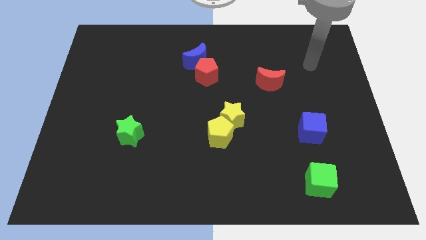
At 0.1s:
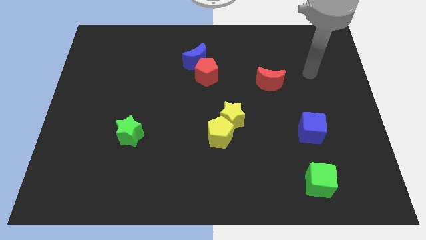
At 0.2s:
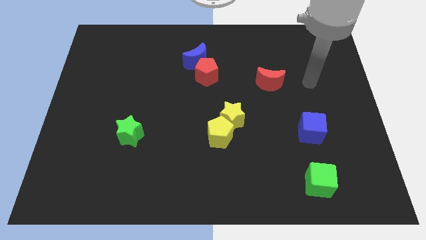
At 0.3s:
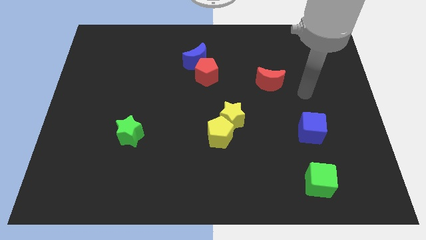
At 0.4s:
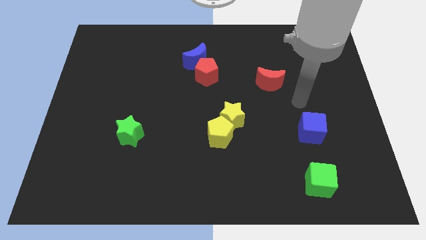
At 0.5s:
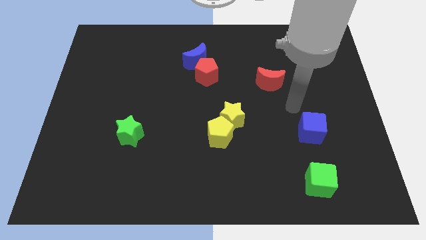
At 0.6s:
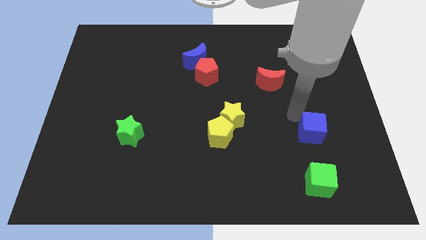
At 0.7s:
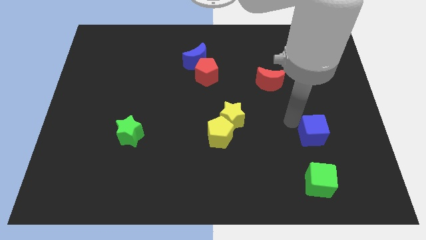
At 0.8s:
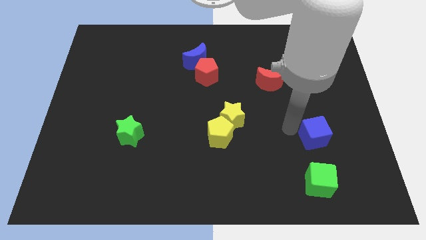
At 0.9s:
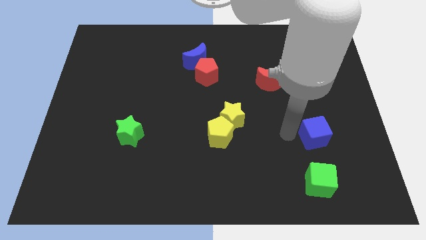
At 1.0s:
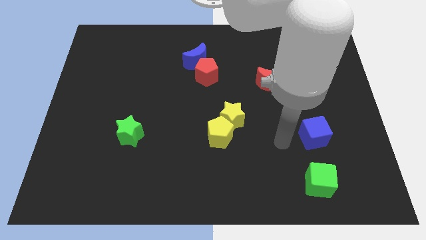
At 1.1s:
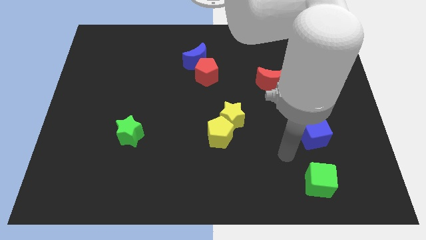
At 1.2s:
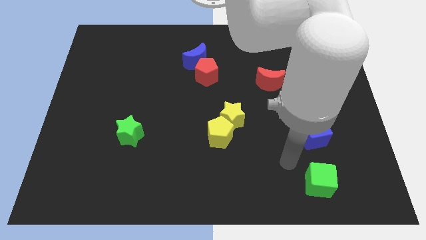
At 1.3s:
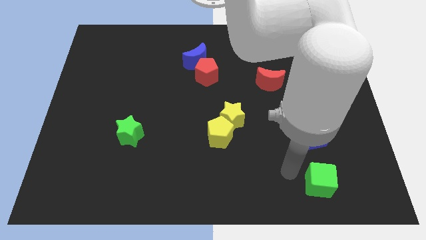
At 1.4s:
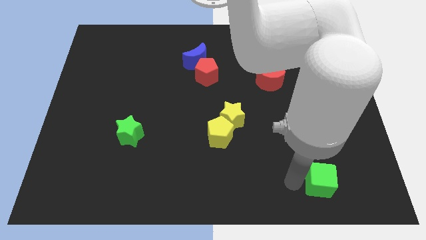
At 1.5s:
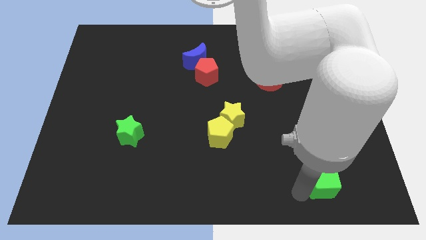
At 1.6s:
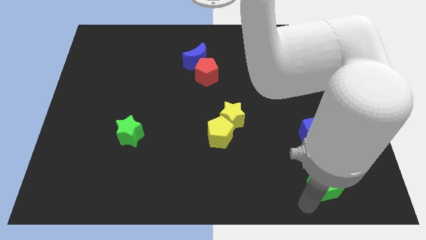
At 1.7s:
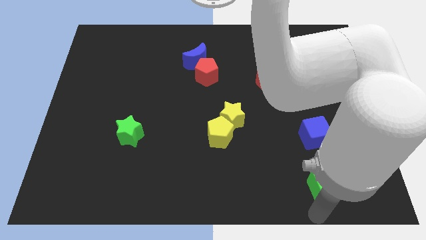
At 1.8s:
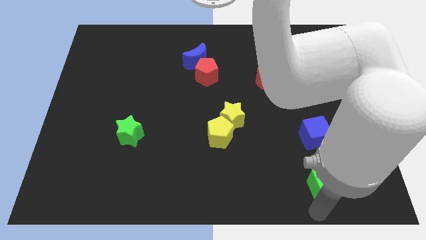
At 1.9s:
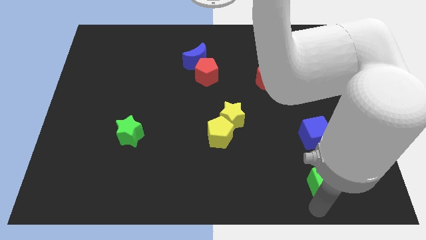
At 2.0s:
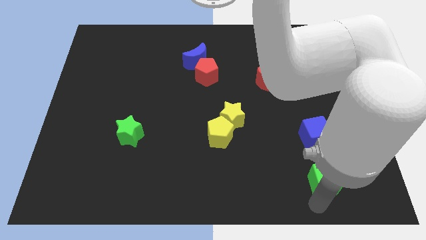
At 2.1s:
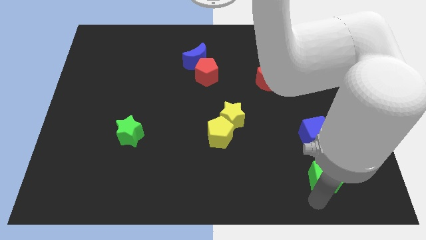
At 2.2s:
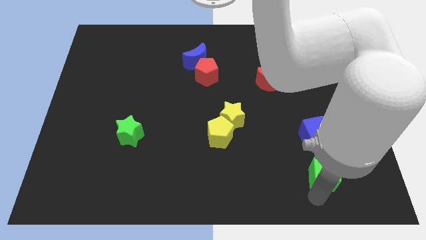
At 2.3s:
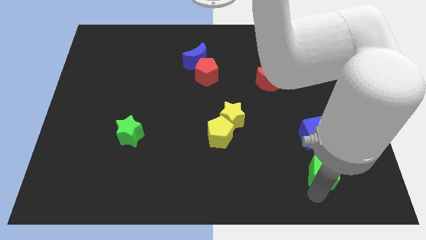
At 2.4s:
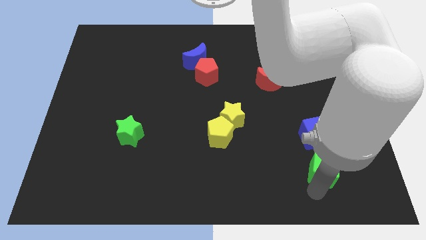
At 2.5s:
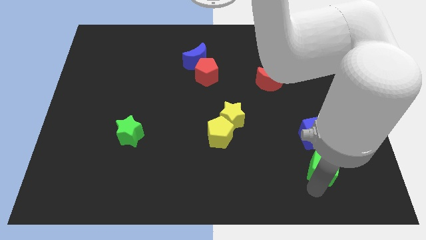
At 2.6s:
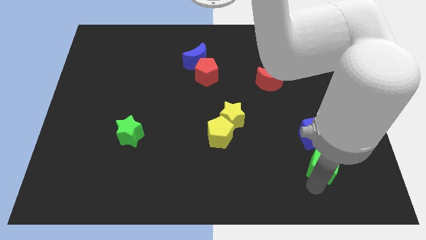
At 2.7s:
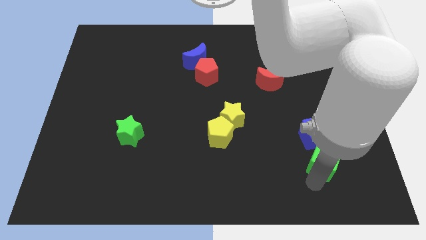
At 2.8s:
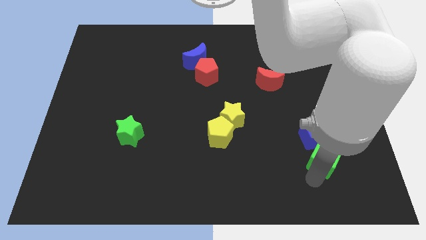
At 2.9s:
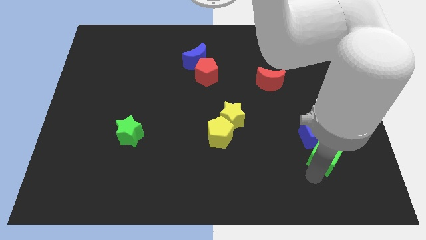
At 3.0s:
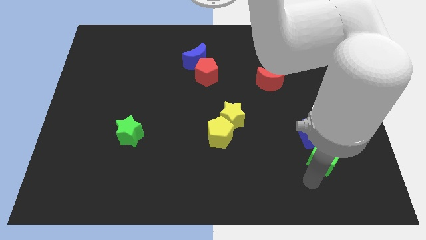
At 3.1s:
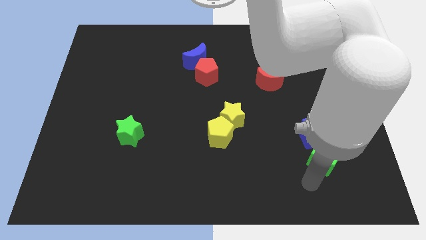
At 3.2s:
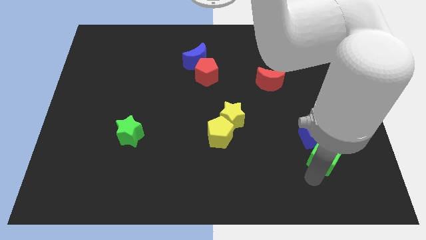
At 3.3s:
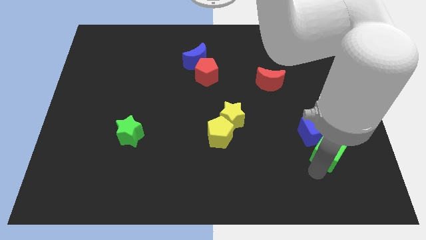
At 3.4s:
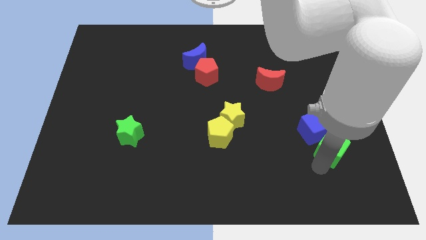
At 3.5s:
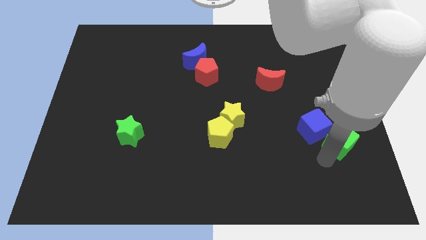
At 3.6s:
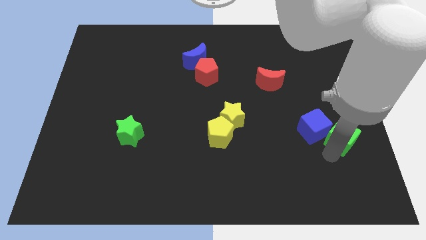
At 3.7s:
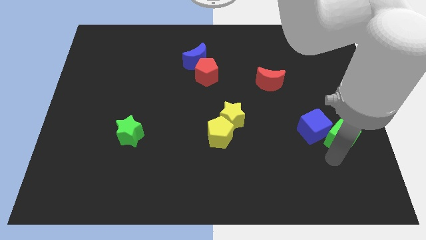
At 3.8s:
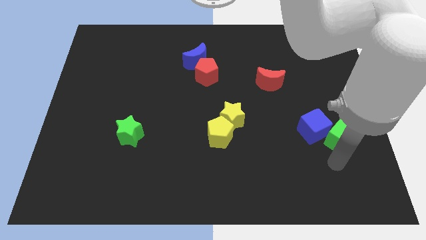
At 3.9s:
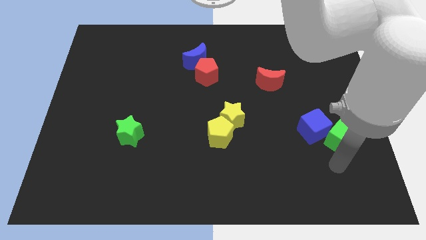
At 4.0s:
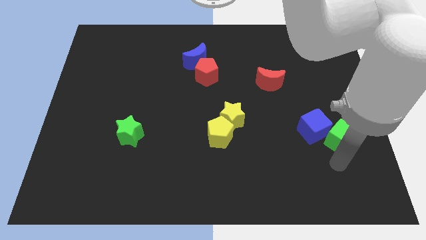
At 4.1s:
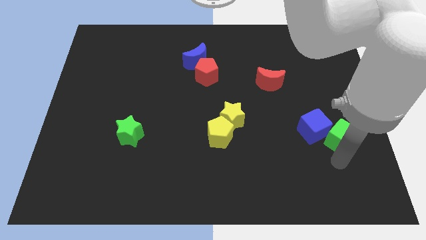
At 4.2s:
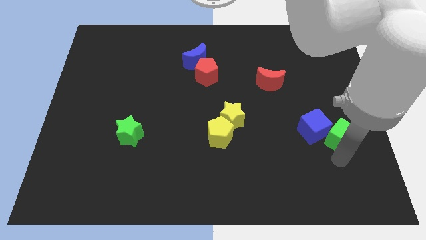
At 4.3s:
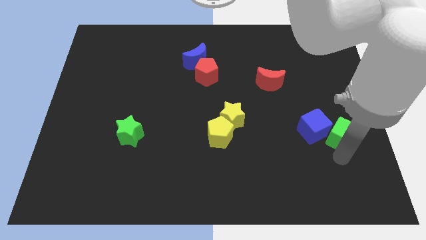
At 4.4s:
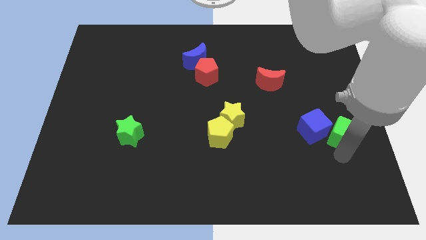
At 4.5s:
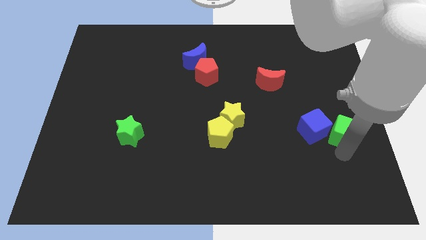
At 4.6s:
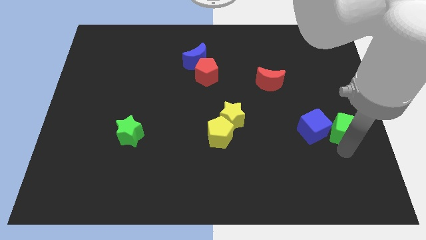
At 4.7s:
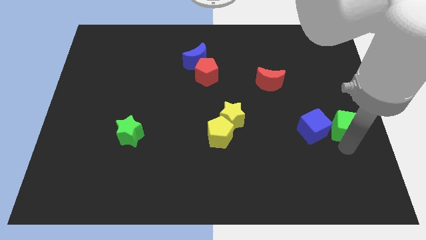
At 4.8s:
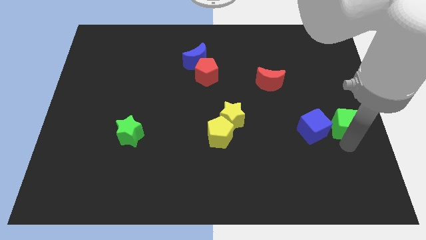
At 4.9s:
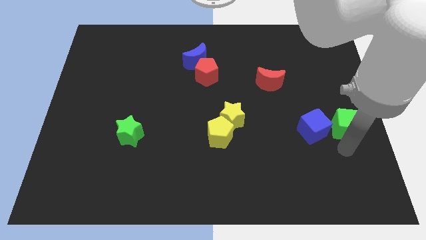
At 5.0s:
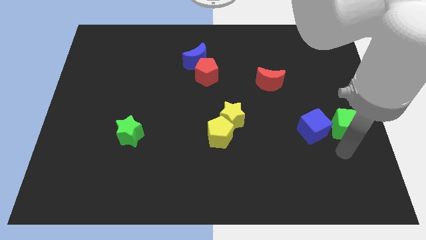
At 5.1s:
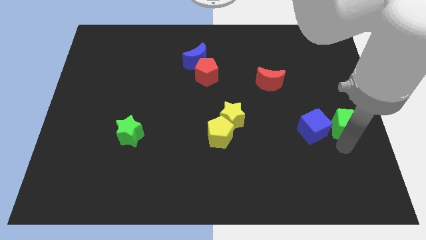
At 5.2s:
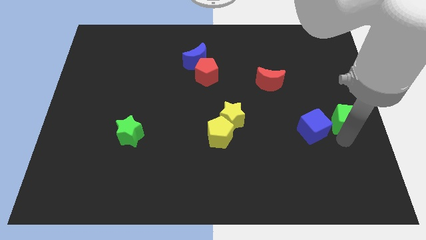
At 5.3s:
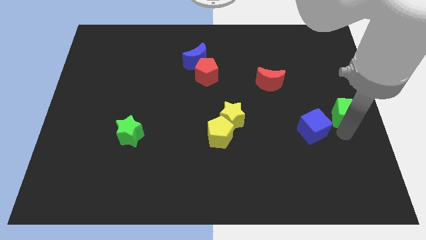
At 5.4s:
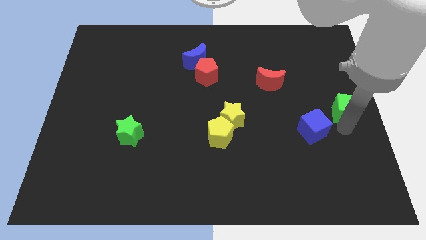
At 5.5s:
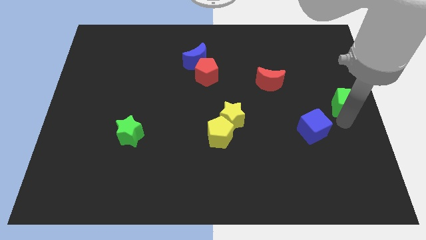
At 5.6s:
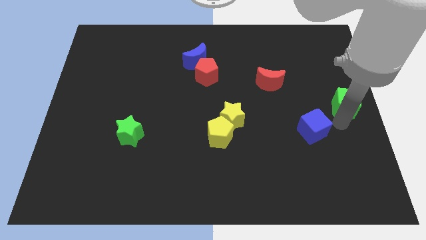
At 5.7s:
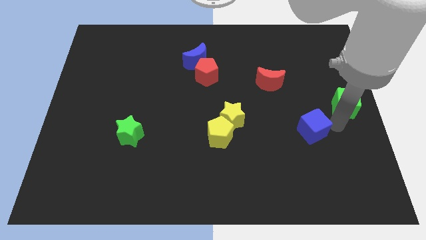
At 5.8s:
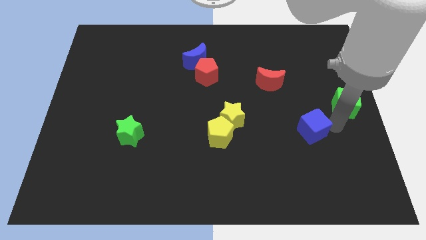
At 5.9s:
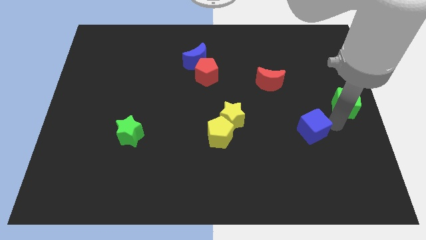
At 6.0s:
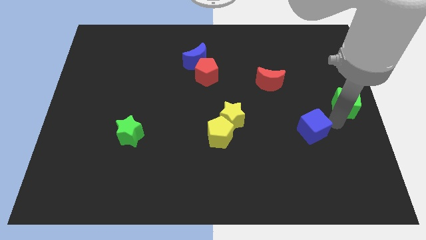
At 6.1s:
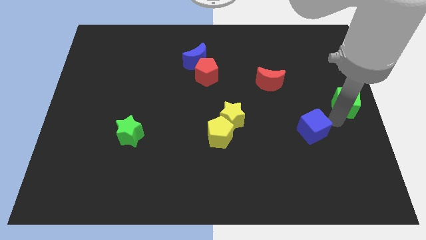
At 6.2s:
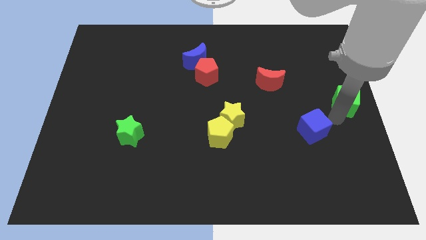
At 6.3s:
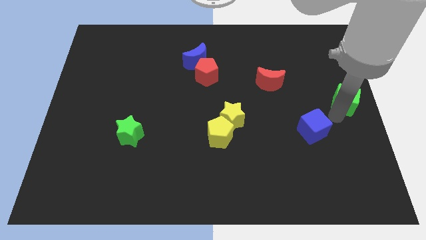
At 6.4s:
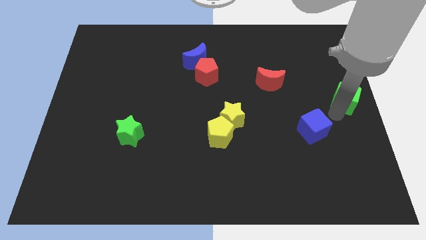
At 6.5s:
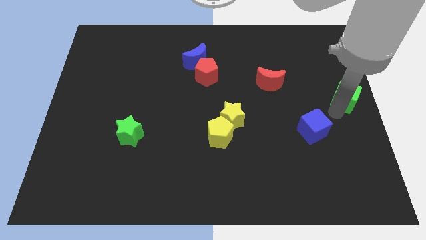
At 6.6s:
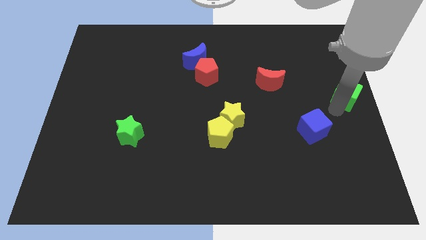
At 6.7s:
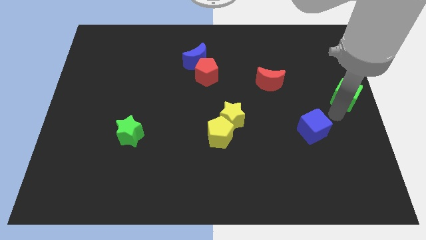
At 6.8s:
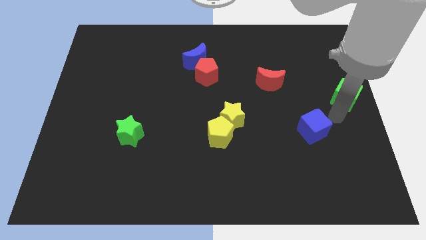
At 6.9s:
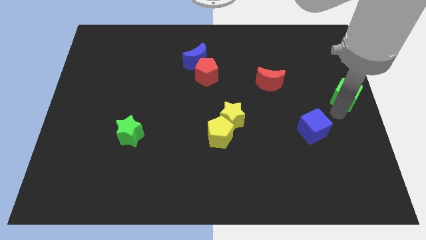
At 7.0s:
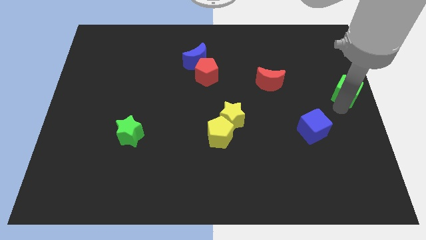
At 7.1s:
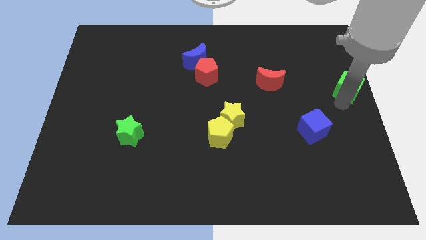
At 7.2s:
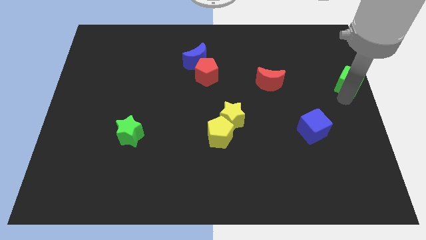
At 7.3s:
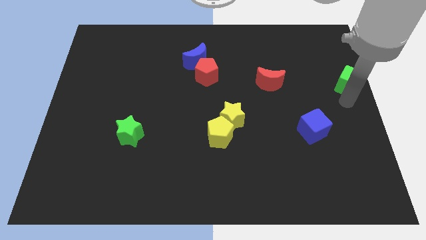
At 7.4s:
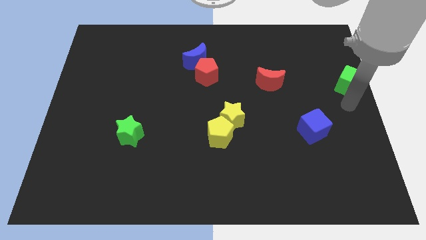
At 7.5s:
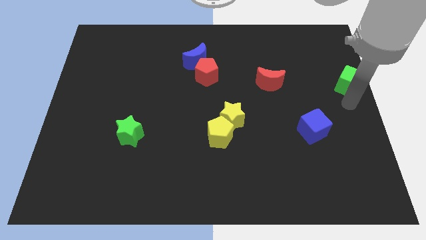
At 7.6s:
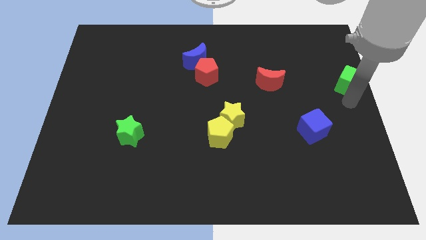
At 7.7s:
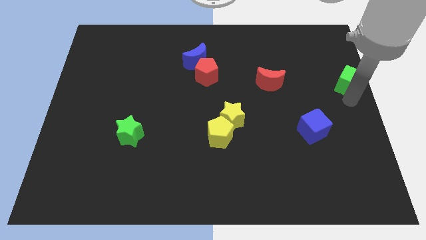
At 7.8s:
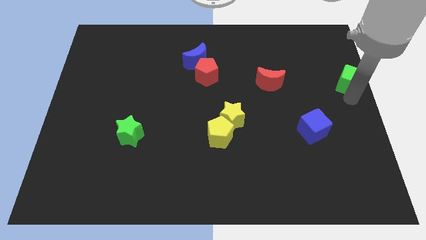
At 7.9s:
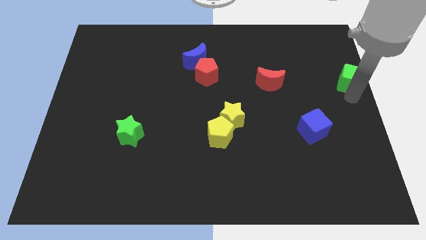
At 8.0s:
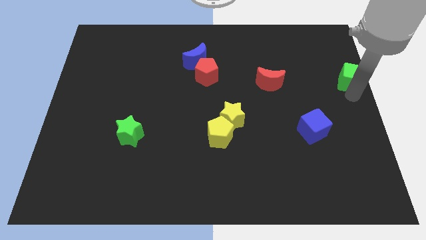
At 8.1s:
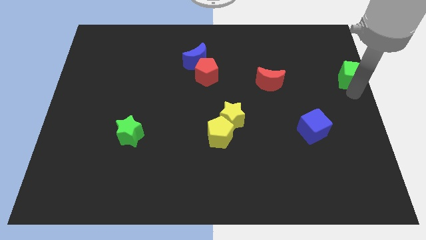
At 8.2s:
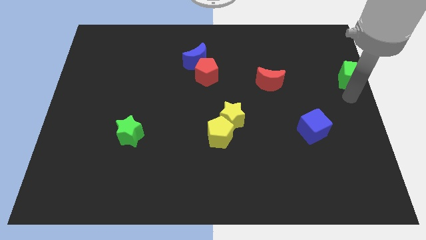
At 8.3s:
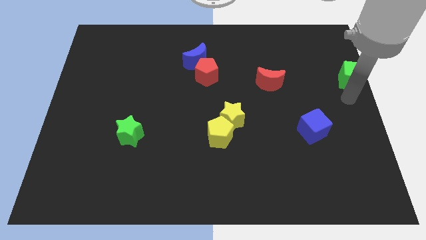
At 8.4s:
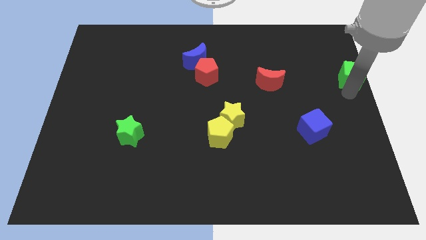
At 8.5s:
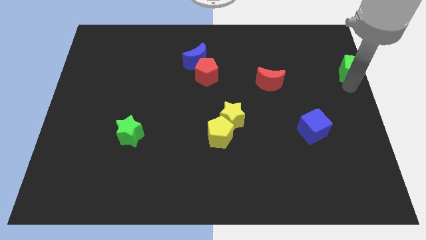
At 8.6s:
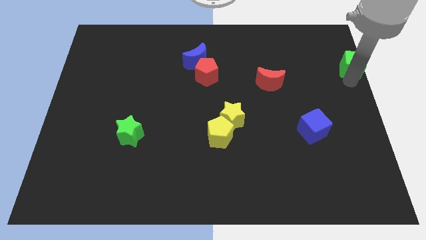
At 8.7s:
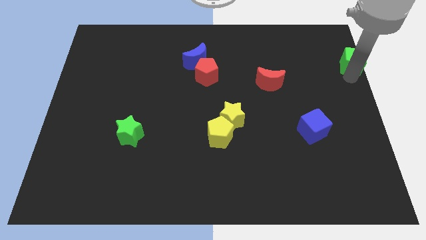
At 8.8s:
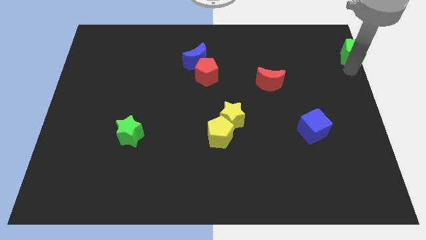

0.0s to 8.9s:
push the green cube to the top right
